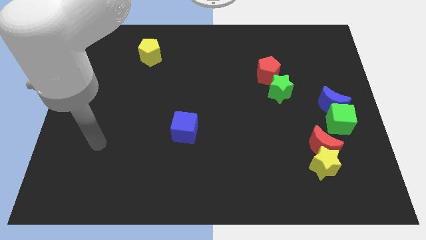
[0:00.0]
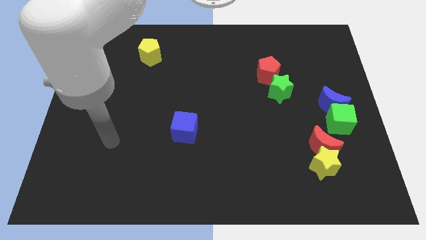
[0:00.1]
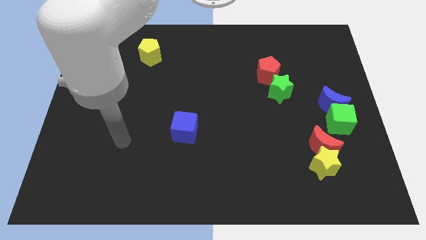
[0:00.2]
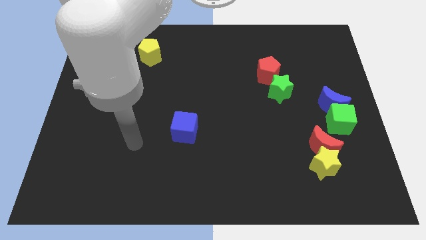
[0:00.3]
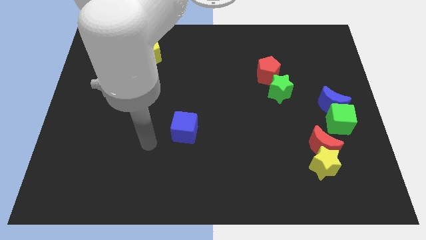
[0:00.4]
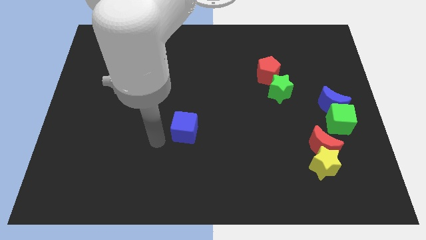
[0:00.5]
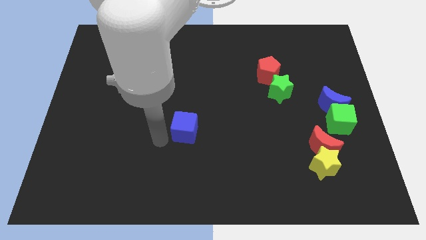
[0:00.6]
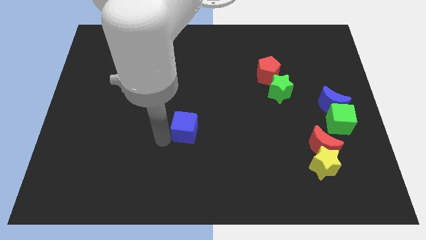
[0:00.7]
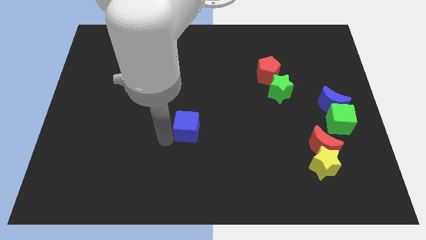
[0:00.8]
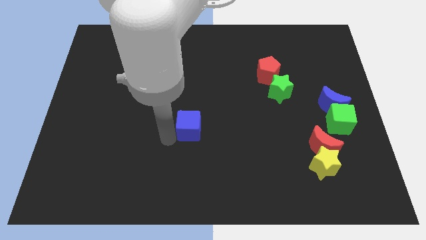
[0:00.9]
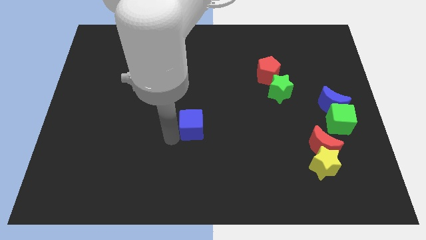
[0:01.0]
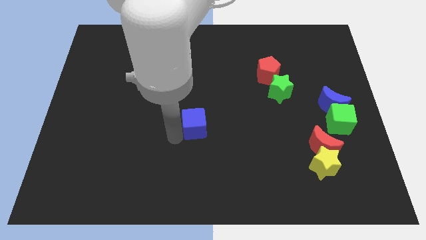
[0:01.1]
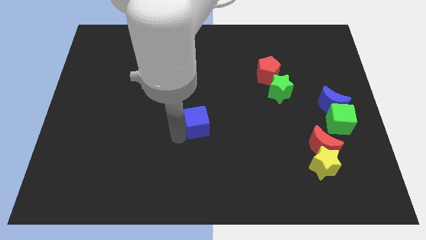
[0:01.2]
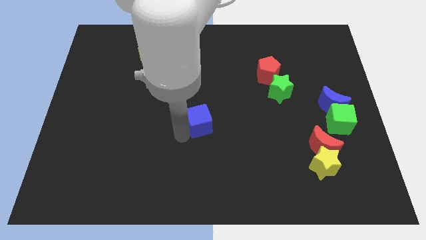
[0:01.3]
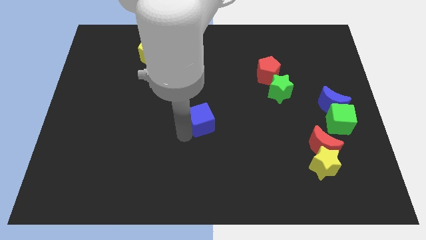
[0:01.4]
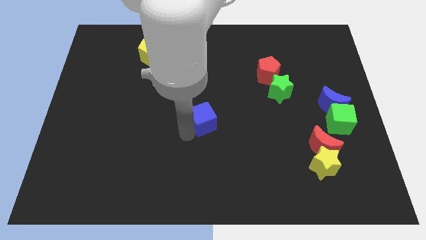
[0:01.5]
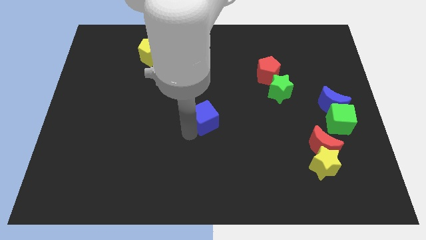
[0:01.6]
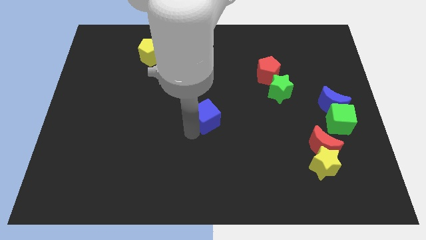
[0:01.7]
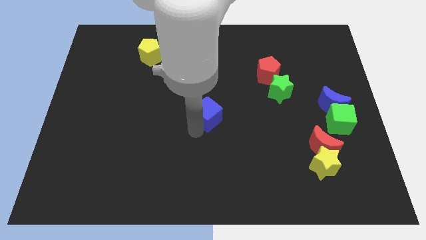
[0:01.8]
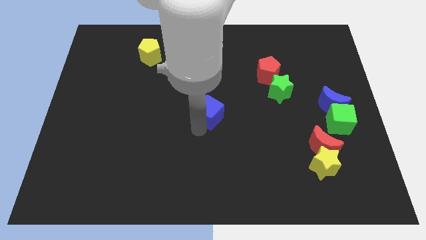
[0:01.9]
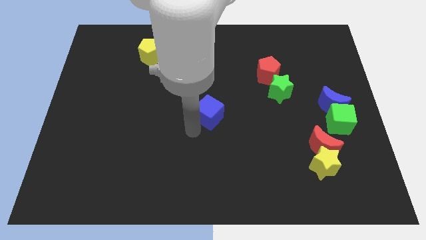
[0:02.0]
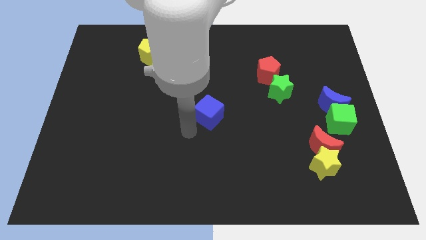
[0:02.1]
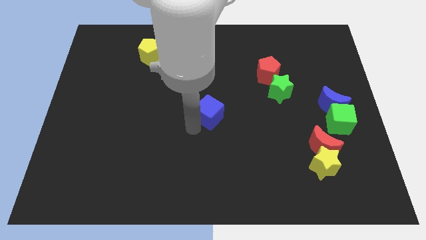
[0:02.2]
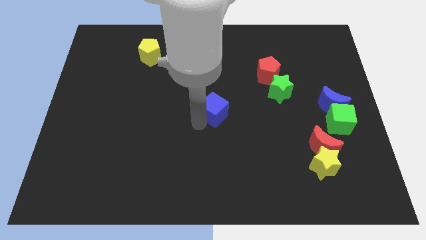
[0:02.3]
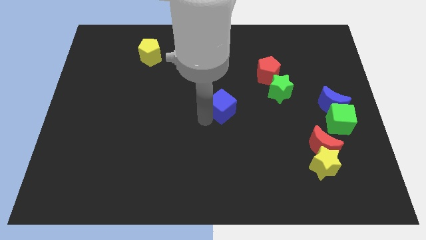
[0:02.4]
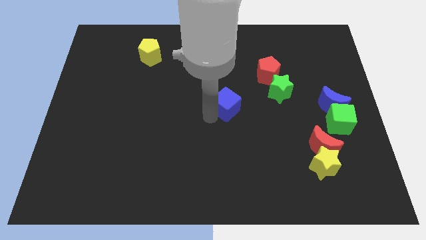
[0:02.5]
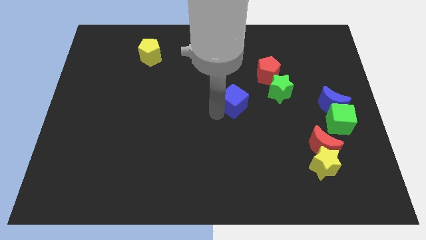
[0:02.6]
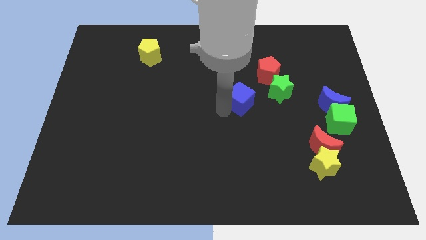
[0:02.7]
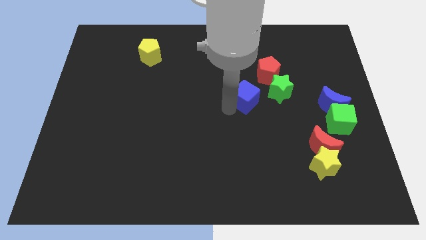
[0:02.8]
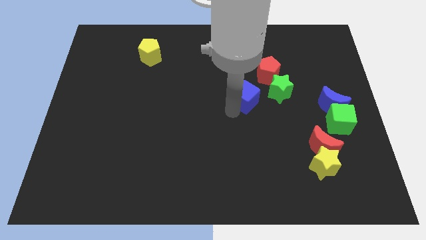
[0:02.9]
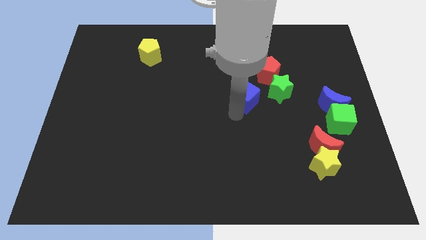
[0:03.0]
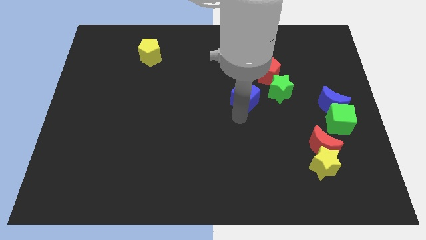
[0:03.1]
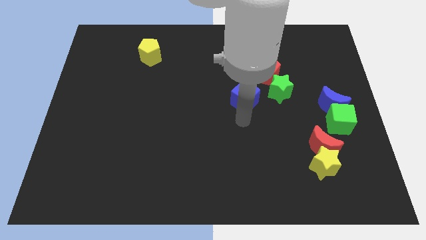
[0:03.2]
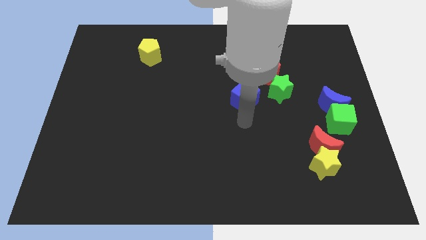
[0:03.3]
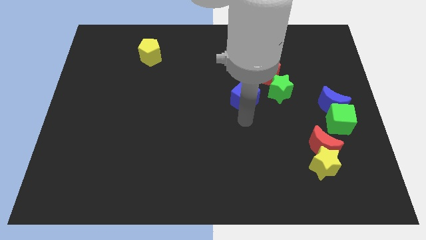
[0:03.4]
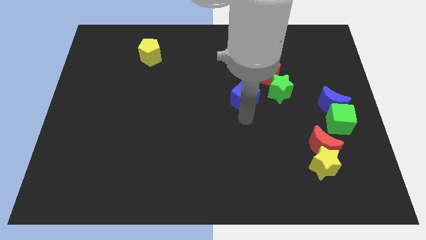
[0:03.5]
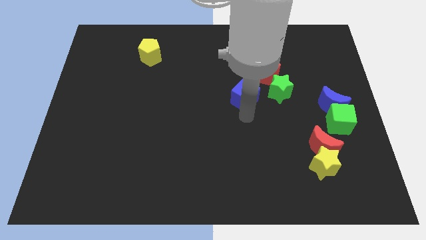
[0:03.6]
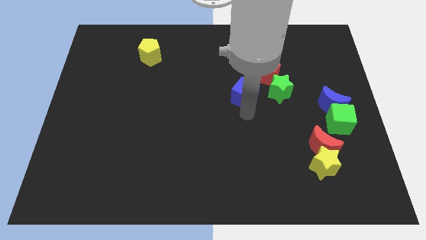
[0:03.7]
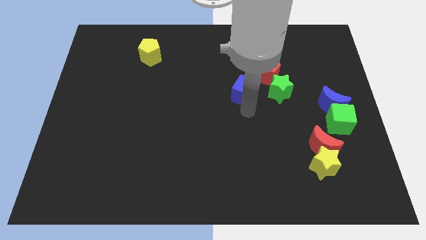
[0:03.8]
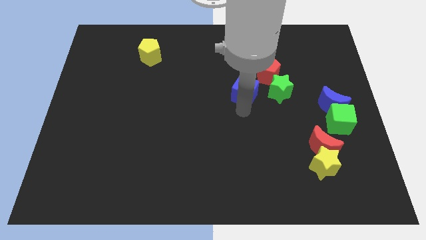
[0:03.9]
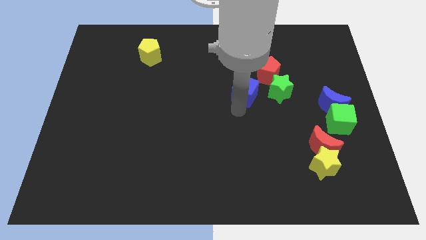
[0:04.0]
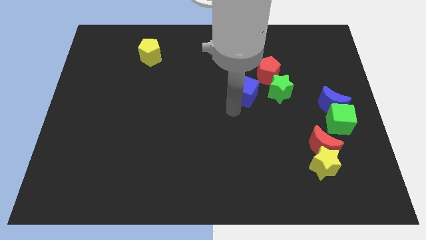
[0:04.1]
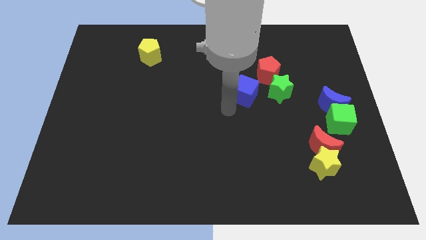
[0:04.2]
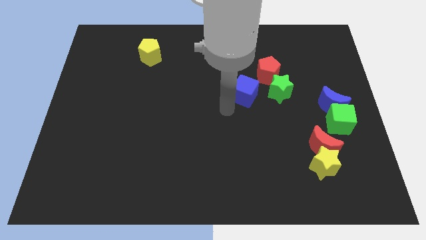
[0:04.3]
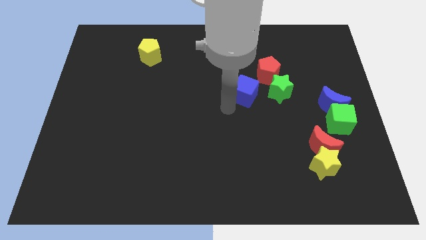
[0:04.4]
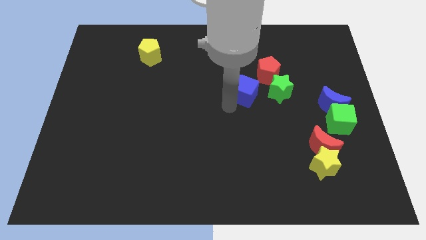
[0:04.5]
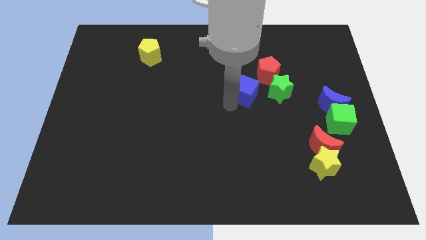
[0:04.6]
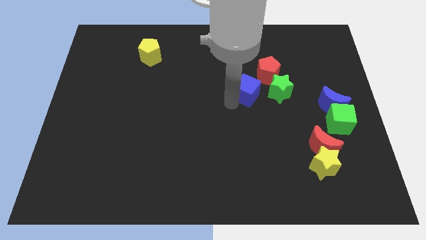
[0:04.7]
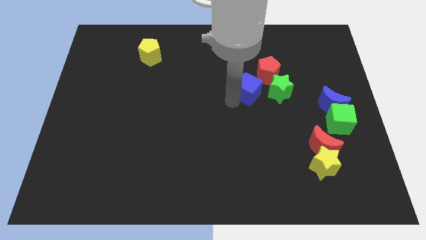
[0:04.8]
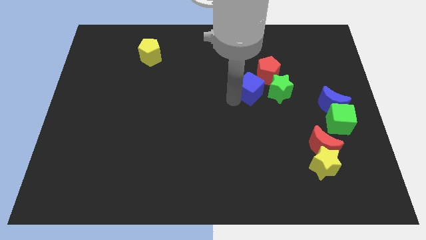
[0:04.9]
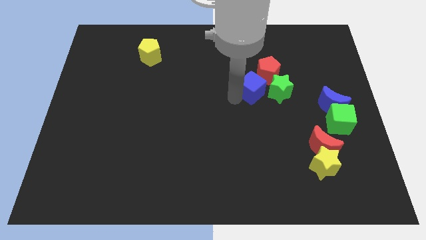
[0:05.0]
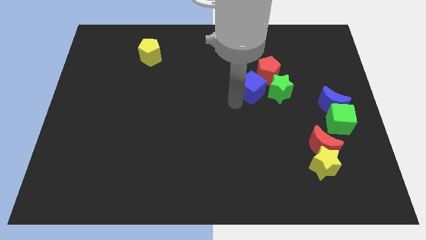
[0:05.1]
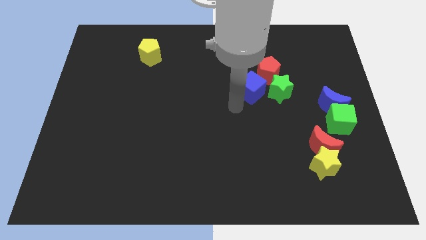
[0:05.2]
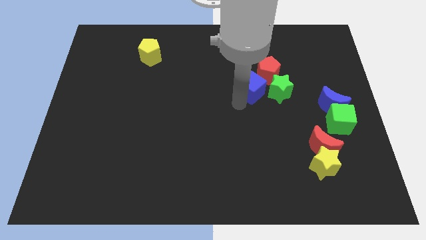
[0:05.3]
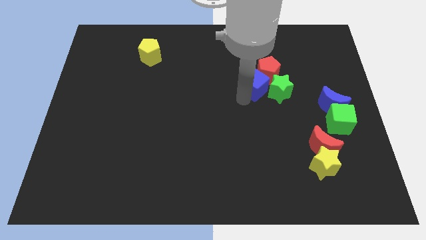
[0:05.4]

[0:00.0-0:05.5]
move the blue cube close to the red pentagon

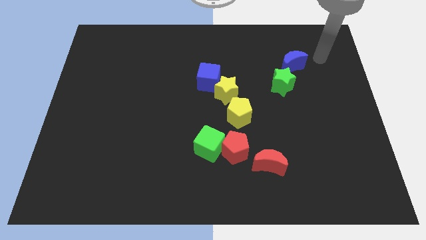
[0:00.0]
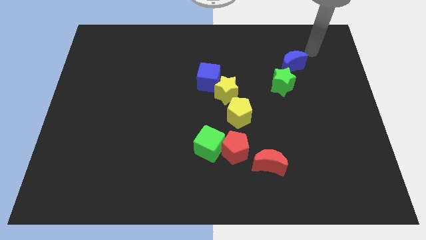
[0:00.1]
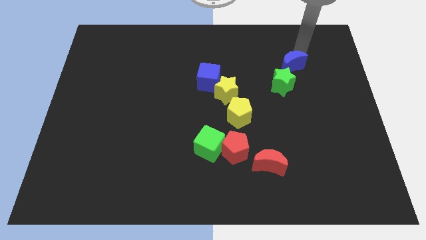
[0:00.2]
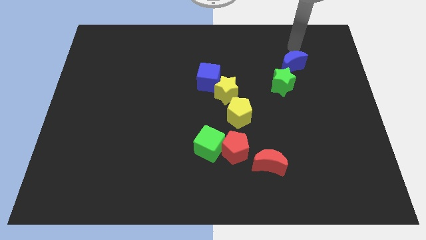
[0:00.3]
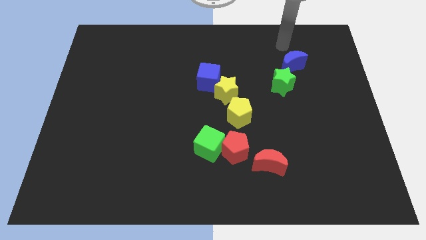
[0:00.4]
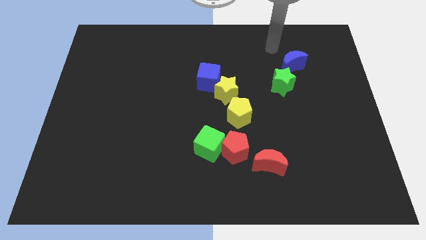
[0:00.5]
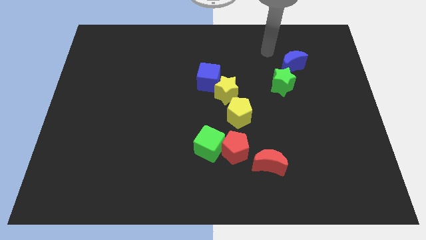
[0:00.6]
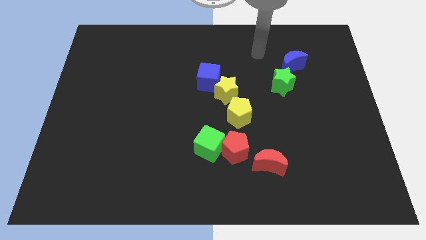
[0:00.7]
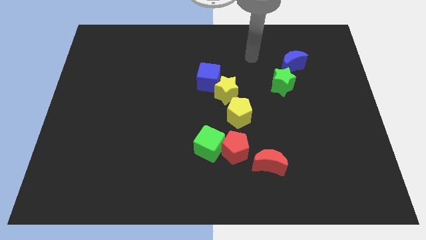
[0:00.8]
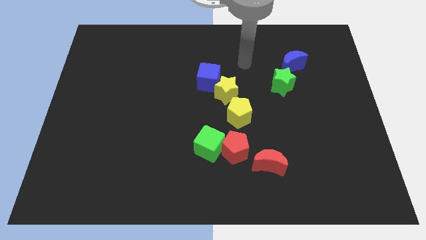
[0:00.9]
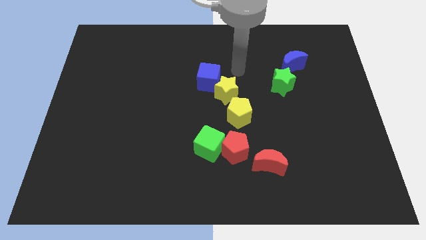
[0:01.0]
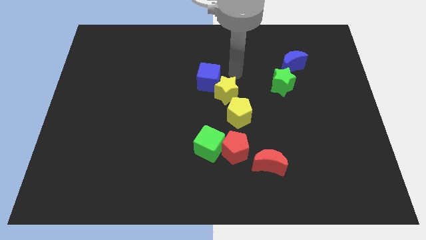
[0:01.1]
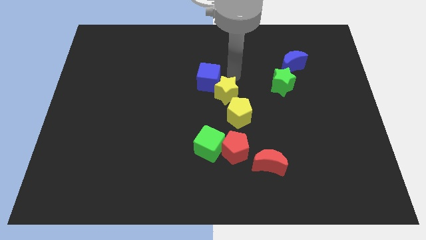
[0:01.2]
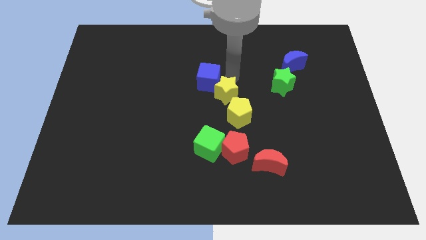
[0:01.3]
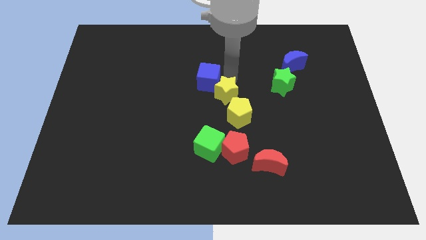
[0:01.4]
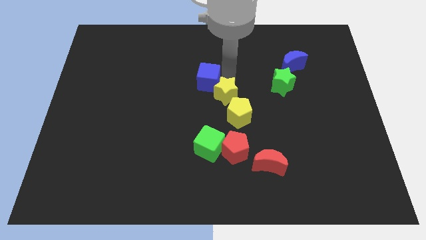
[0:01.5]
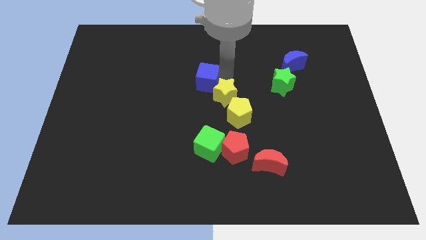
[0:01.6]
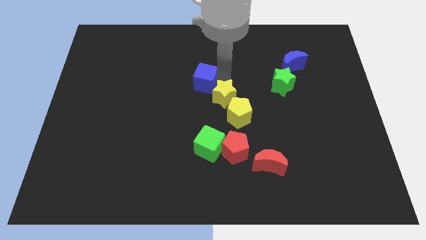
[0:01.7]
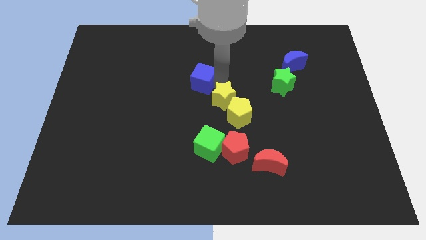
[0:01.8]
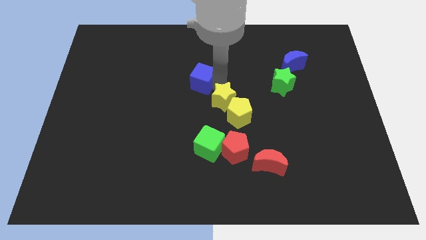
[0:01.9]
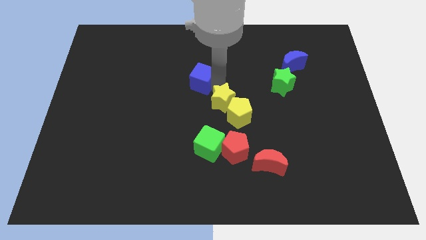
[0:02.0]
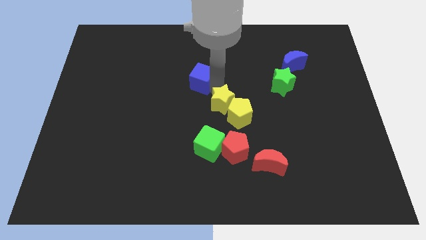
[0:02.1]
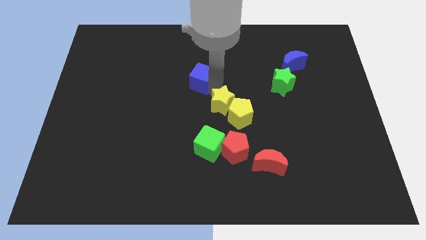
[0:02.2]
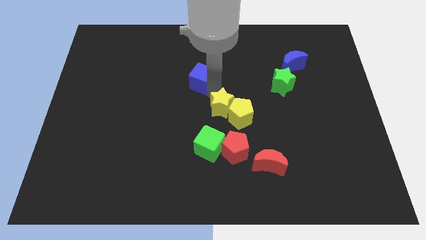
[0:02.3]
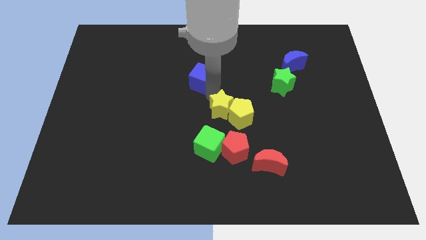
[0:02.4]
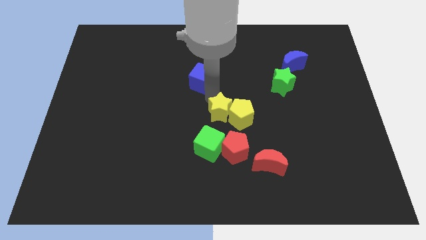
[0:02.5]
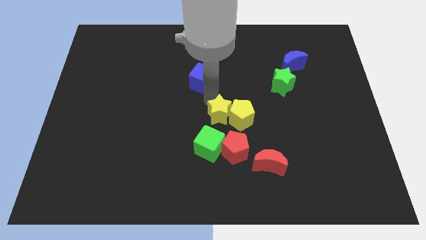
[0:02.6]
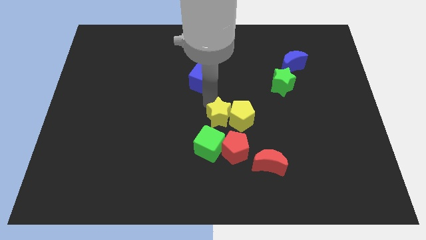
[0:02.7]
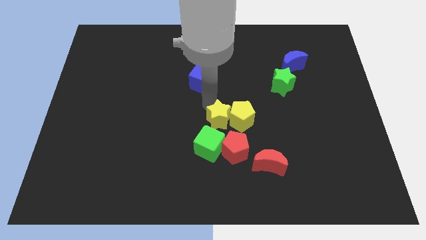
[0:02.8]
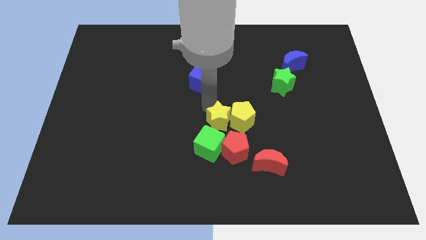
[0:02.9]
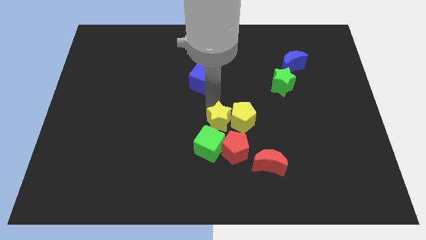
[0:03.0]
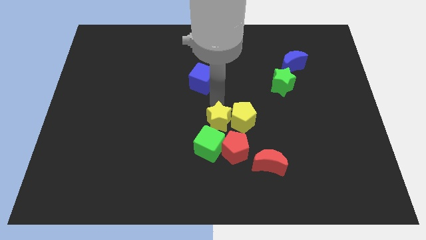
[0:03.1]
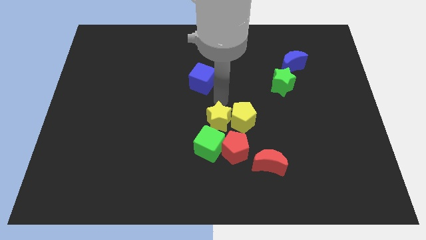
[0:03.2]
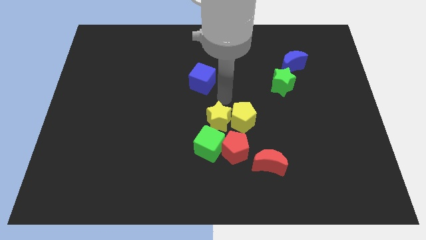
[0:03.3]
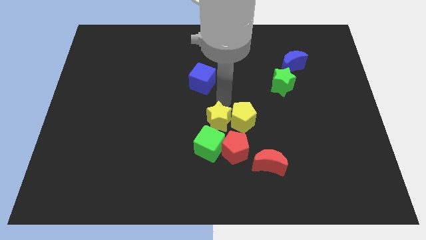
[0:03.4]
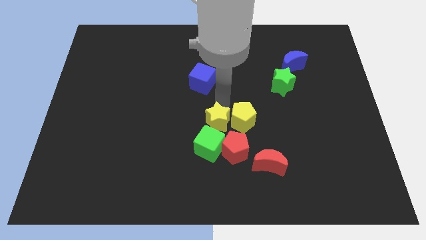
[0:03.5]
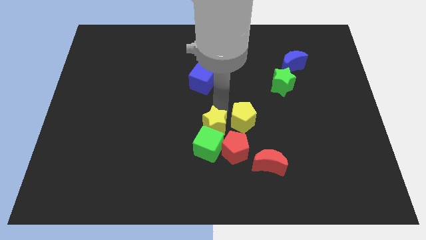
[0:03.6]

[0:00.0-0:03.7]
put the yellow star next to the green cube
